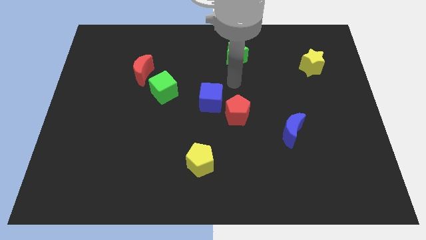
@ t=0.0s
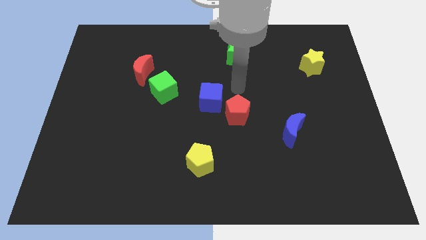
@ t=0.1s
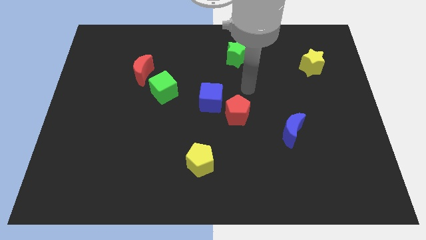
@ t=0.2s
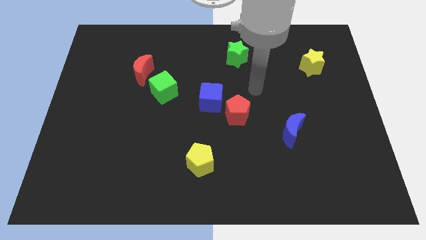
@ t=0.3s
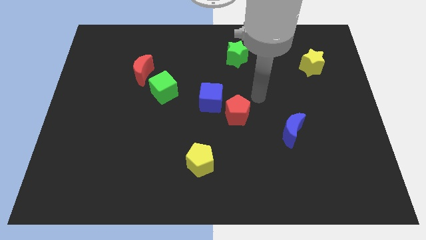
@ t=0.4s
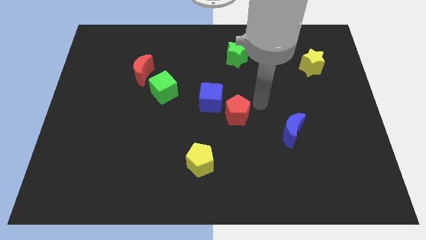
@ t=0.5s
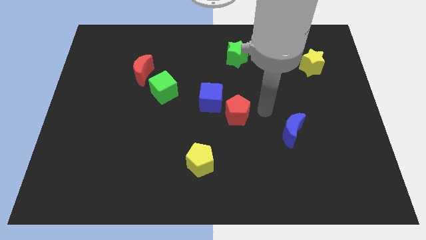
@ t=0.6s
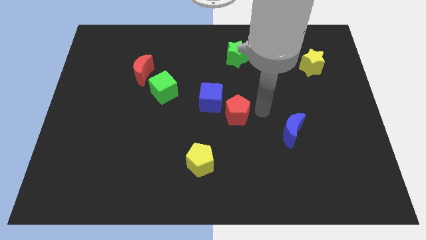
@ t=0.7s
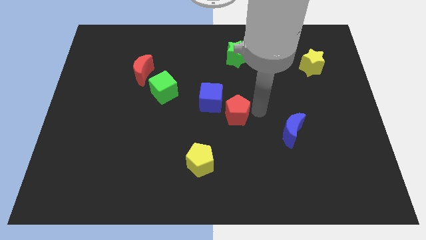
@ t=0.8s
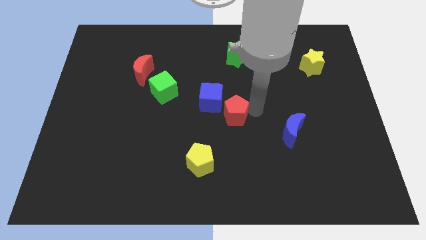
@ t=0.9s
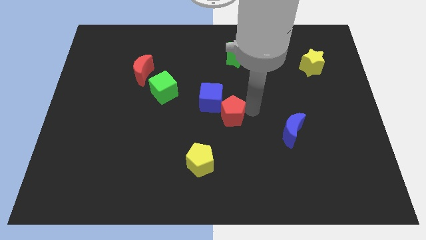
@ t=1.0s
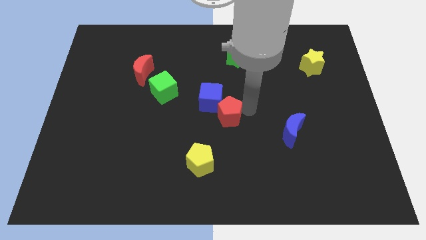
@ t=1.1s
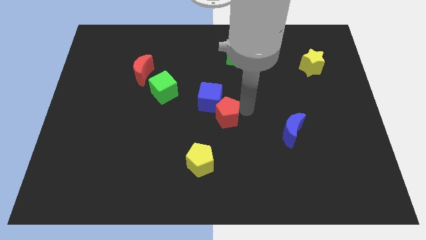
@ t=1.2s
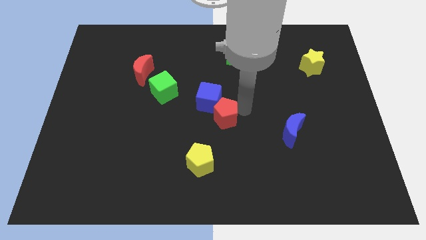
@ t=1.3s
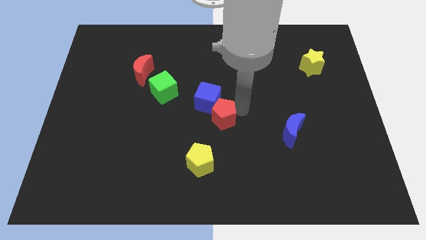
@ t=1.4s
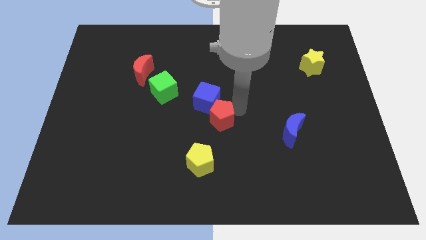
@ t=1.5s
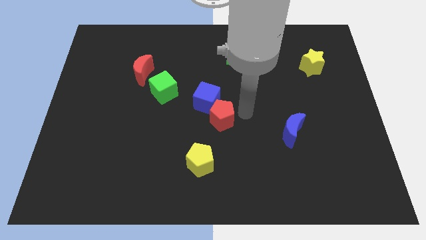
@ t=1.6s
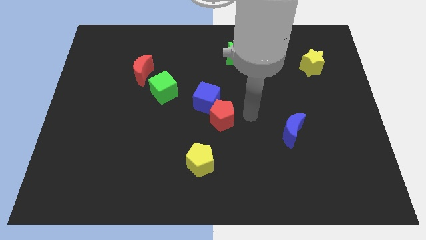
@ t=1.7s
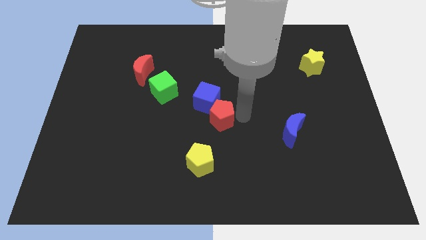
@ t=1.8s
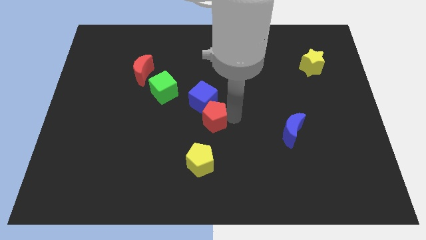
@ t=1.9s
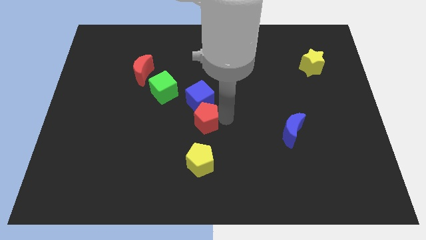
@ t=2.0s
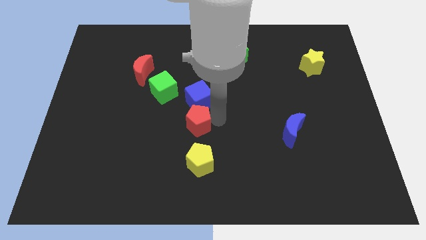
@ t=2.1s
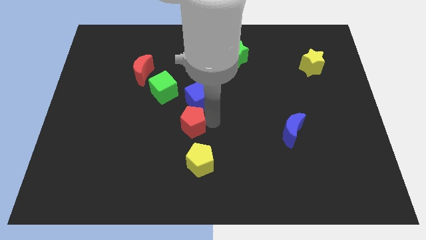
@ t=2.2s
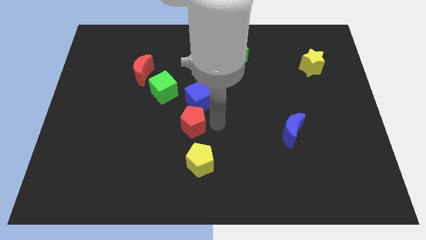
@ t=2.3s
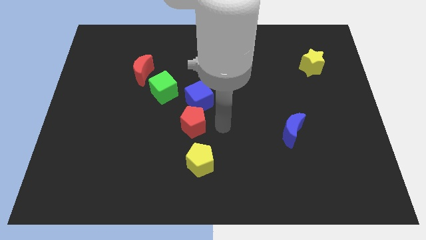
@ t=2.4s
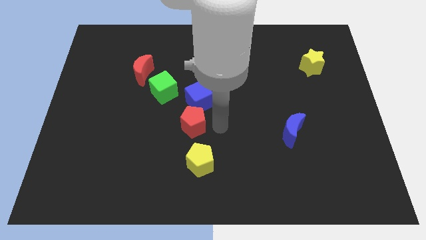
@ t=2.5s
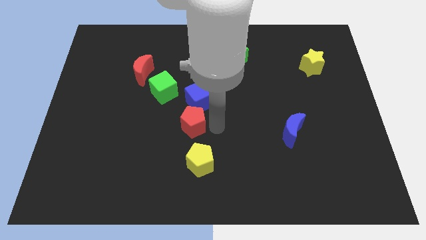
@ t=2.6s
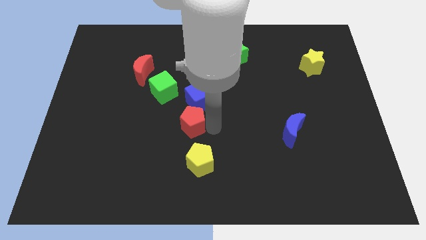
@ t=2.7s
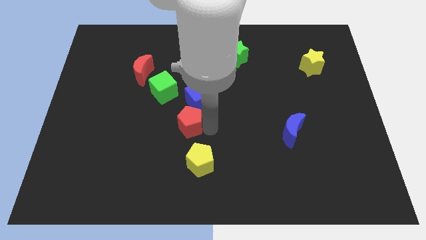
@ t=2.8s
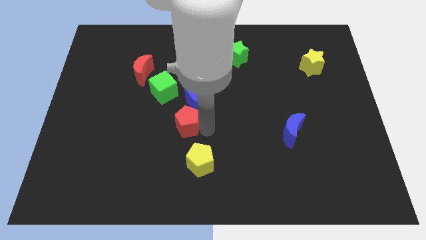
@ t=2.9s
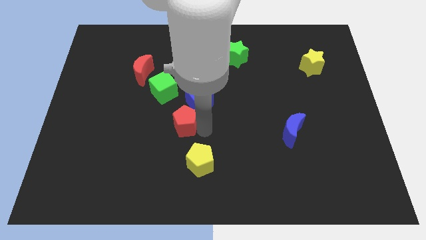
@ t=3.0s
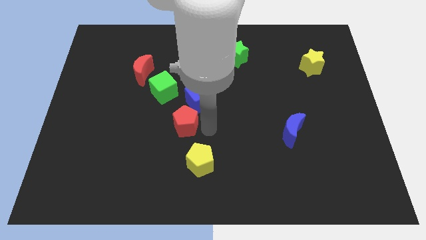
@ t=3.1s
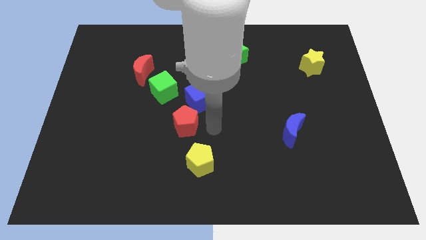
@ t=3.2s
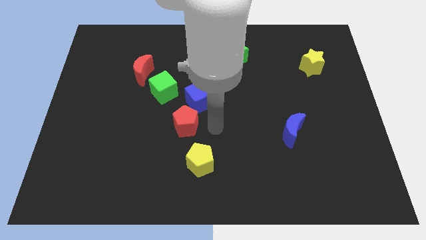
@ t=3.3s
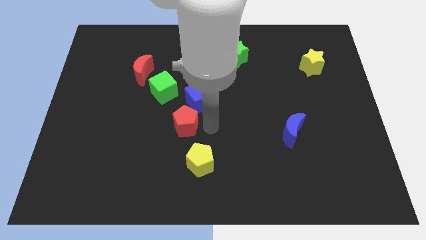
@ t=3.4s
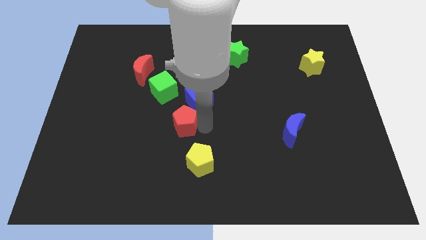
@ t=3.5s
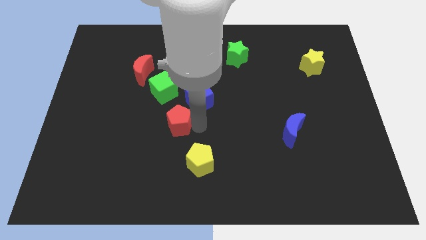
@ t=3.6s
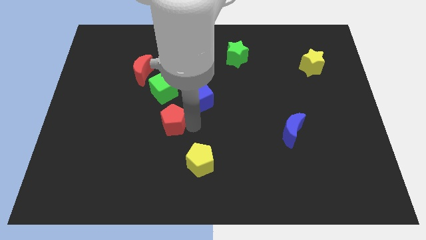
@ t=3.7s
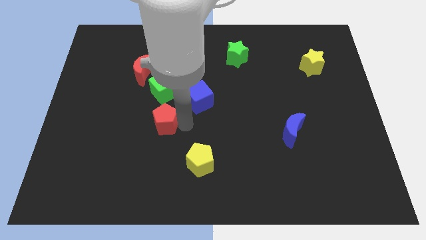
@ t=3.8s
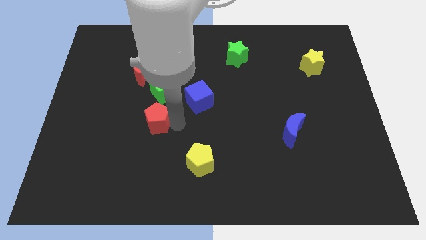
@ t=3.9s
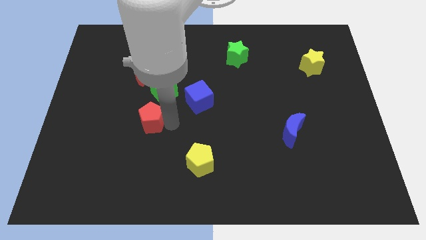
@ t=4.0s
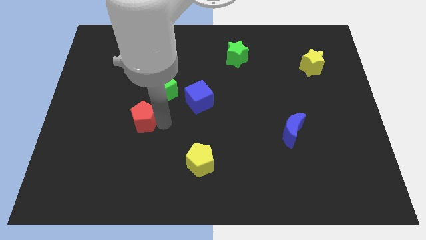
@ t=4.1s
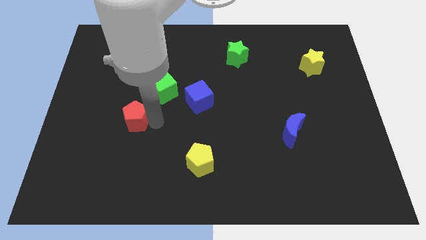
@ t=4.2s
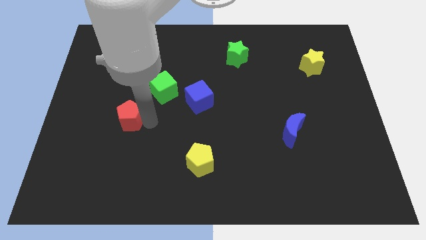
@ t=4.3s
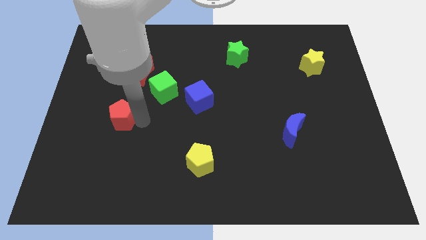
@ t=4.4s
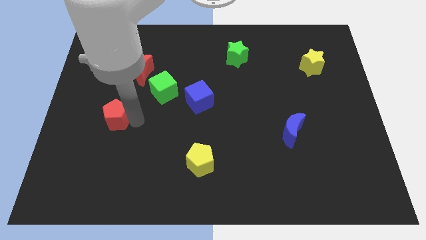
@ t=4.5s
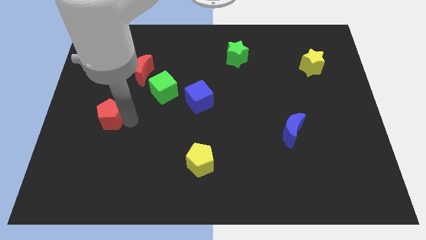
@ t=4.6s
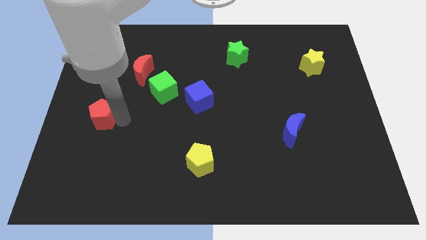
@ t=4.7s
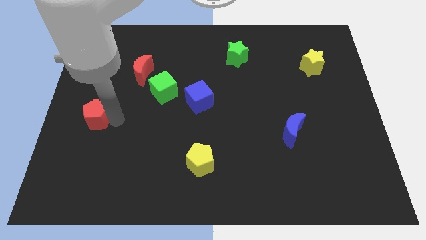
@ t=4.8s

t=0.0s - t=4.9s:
move the red pentagon to the left side

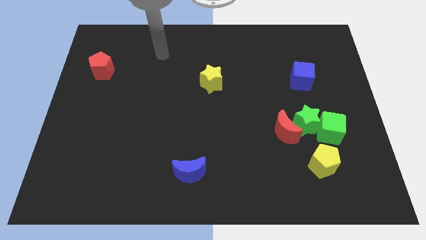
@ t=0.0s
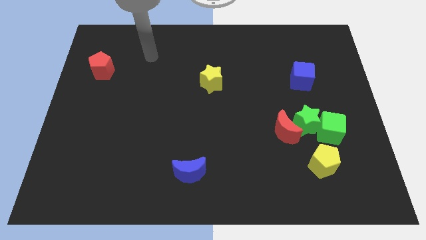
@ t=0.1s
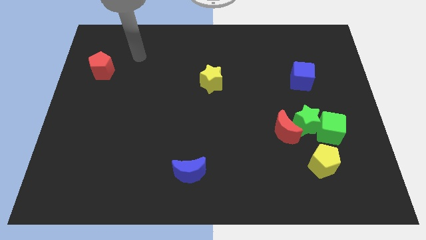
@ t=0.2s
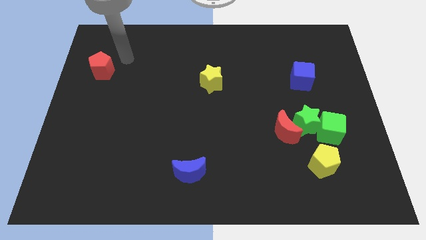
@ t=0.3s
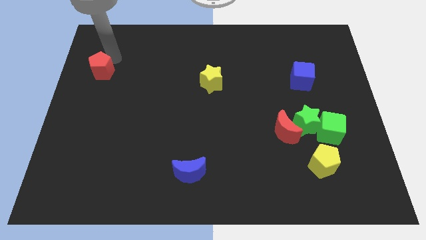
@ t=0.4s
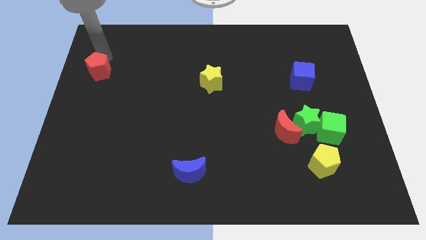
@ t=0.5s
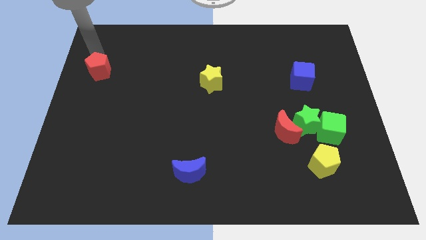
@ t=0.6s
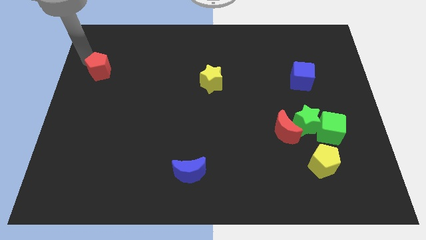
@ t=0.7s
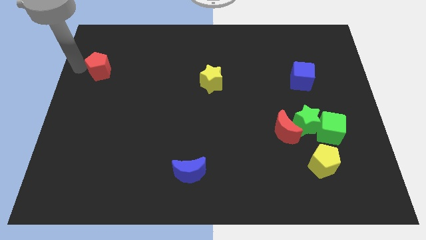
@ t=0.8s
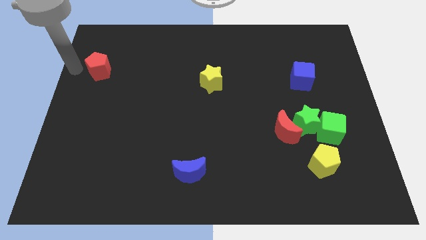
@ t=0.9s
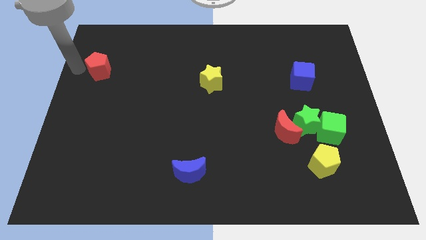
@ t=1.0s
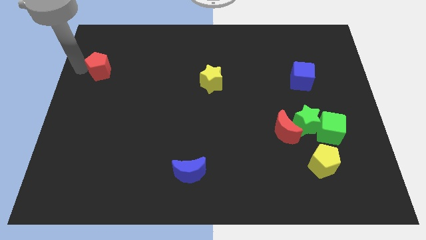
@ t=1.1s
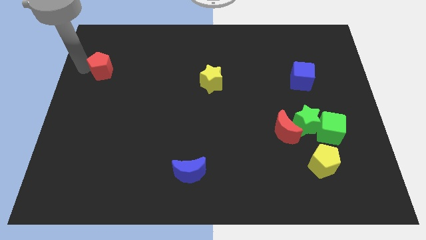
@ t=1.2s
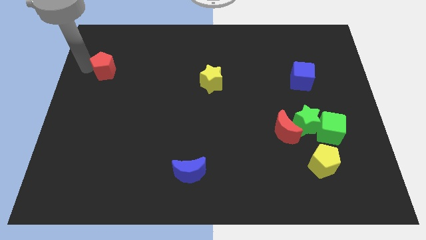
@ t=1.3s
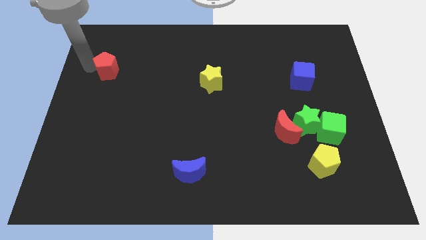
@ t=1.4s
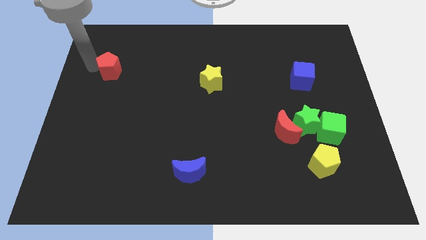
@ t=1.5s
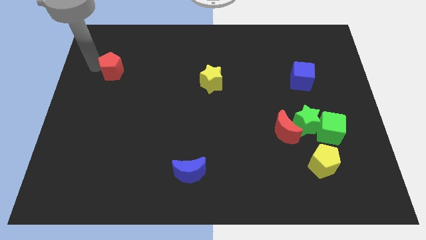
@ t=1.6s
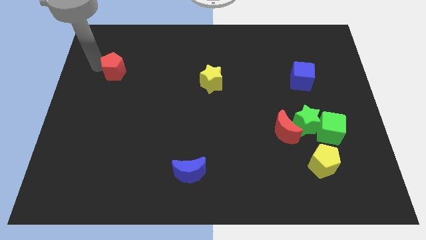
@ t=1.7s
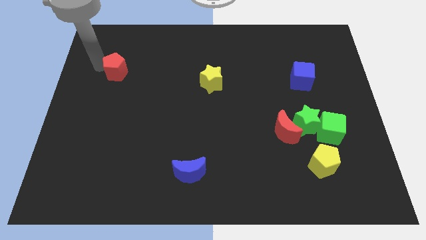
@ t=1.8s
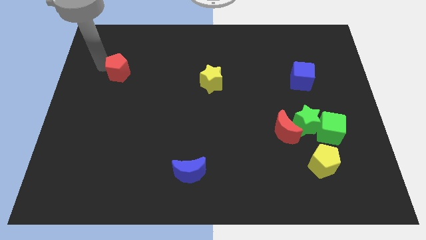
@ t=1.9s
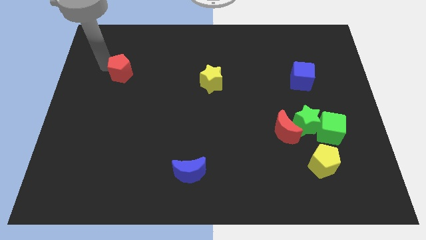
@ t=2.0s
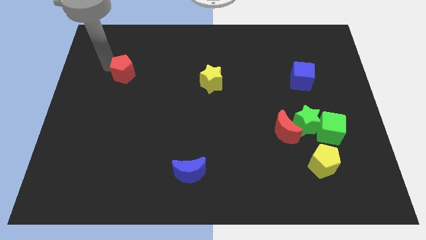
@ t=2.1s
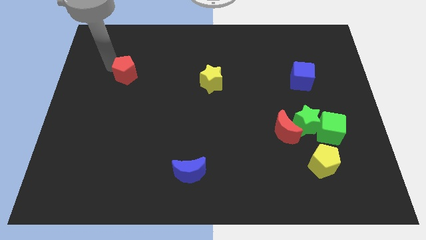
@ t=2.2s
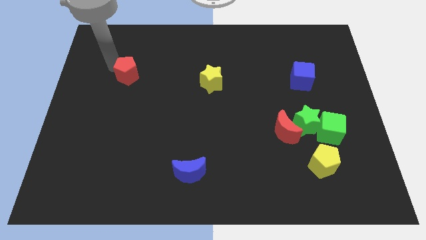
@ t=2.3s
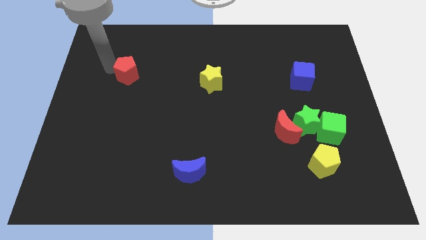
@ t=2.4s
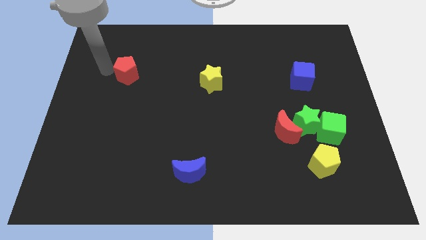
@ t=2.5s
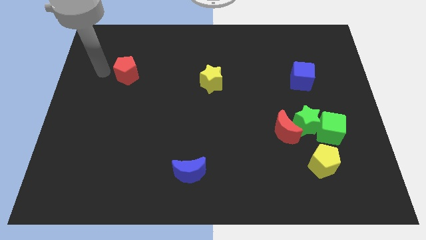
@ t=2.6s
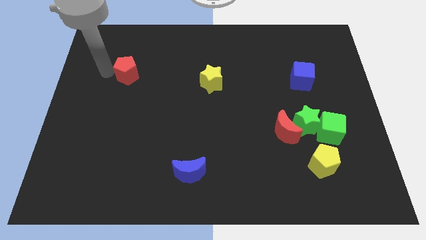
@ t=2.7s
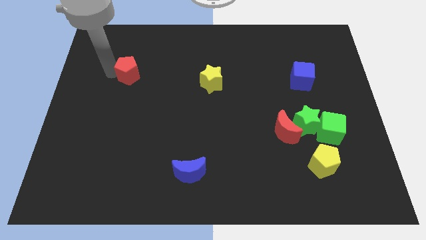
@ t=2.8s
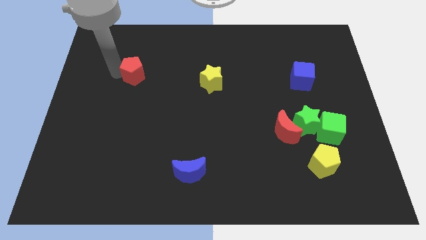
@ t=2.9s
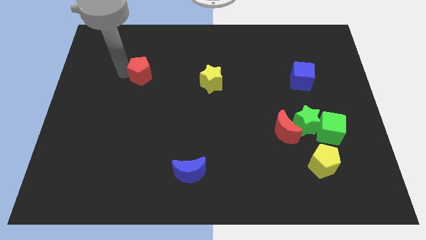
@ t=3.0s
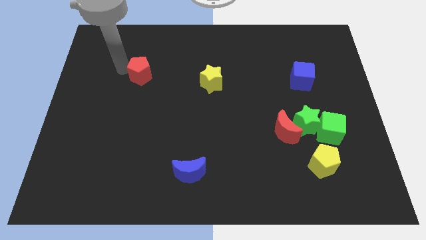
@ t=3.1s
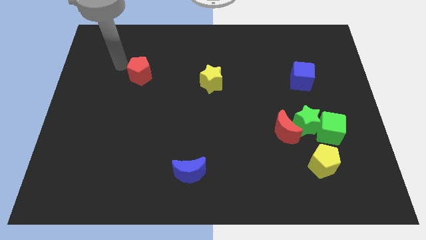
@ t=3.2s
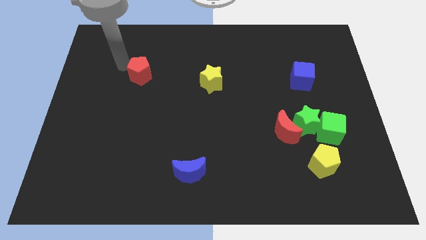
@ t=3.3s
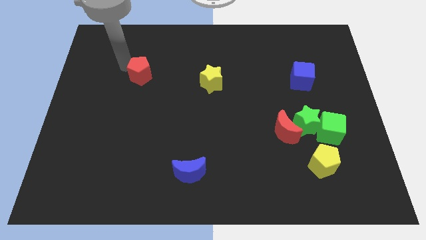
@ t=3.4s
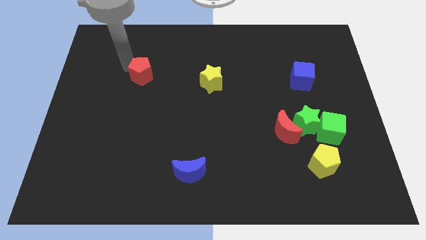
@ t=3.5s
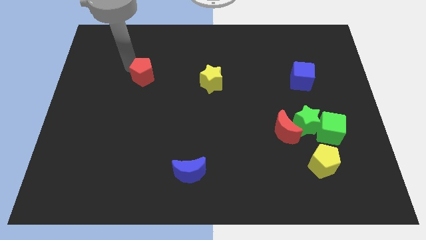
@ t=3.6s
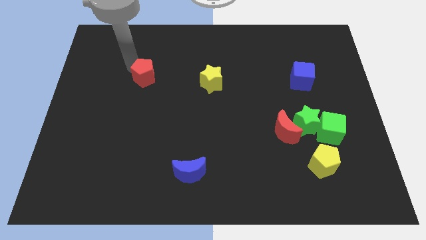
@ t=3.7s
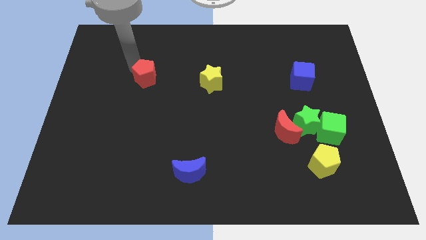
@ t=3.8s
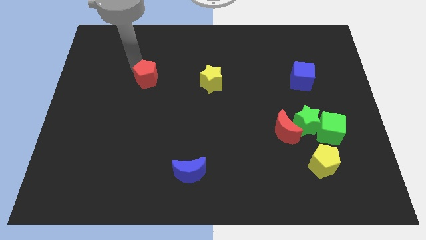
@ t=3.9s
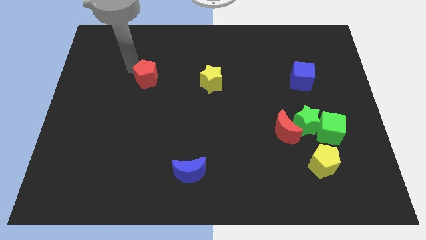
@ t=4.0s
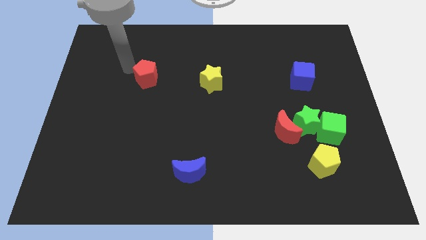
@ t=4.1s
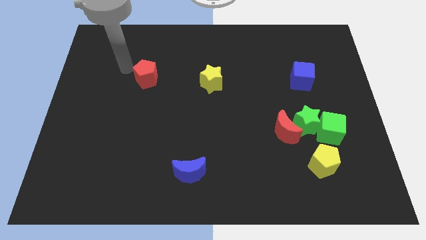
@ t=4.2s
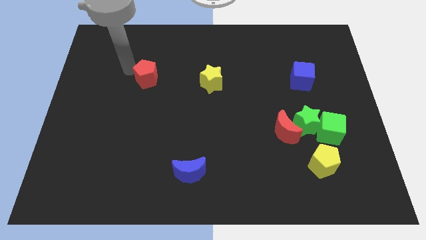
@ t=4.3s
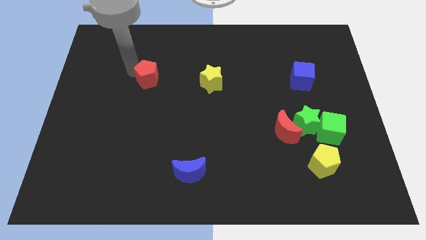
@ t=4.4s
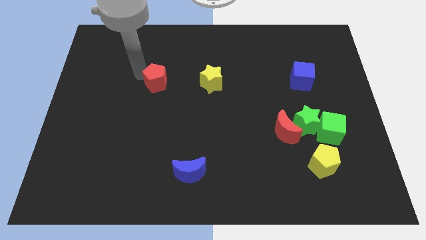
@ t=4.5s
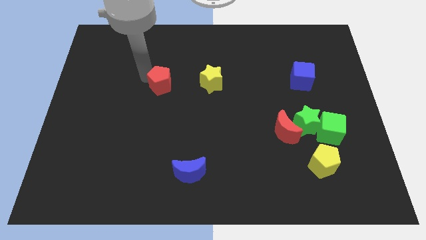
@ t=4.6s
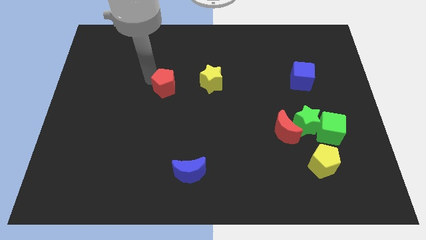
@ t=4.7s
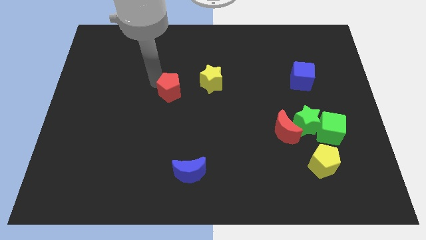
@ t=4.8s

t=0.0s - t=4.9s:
slide the red pentagon to the middle of the board
